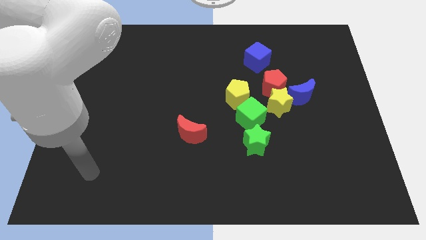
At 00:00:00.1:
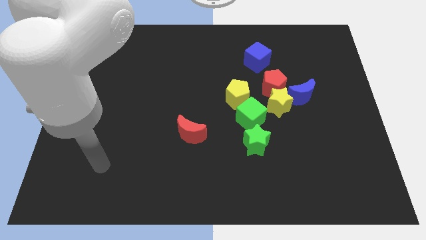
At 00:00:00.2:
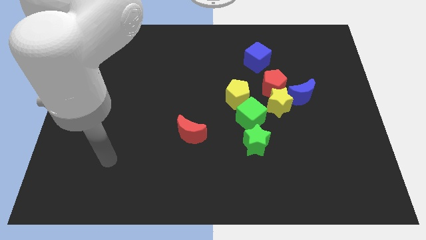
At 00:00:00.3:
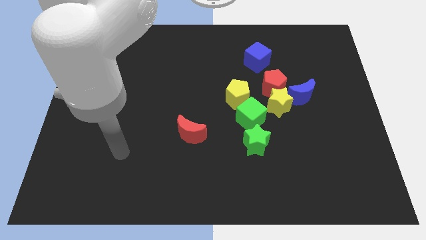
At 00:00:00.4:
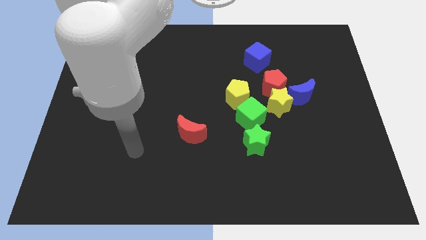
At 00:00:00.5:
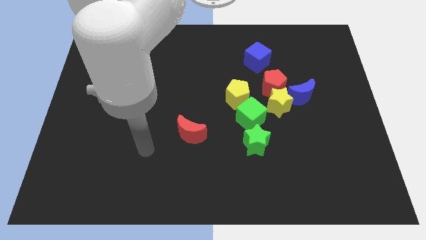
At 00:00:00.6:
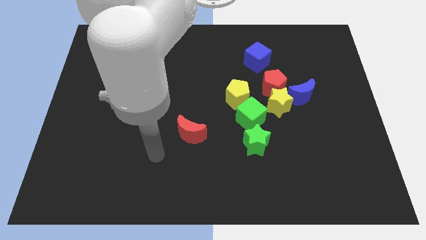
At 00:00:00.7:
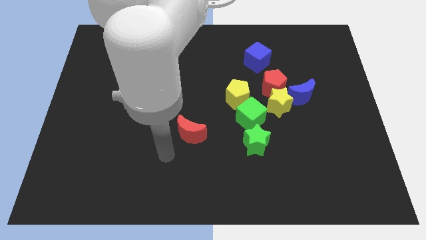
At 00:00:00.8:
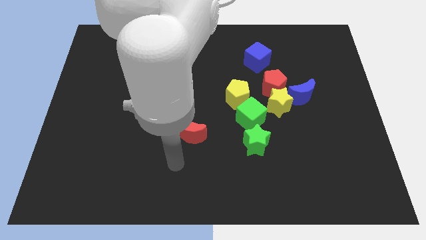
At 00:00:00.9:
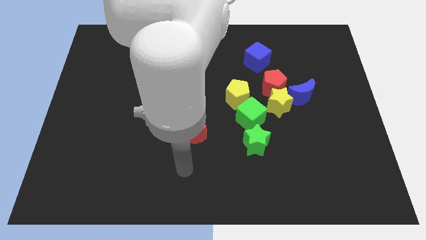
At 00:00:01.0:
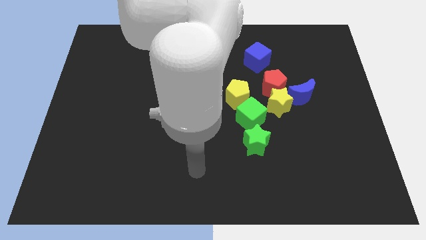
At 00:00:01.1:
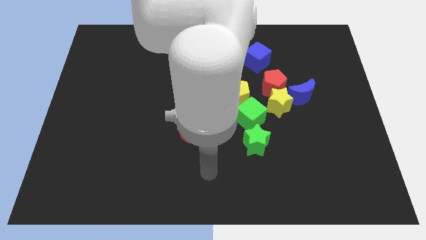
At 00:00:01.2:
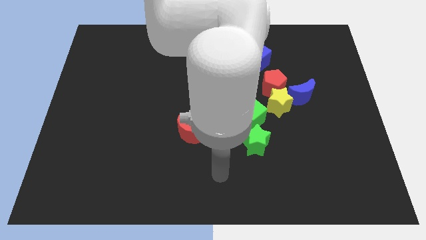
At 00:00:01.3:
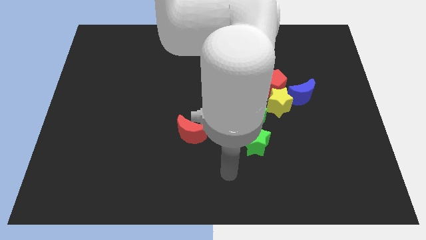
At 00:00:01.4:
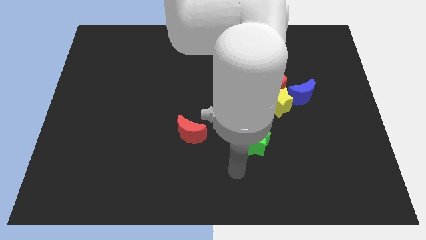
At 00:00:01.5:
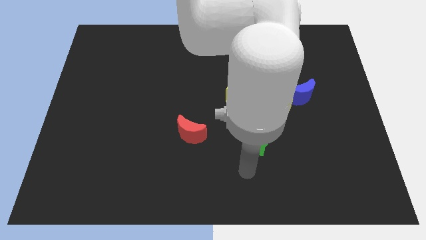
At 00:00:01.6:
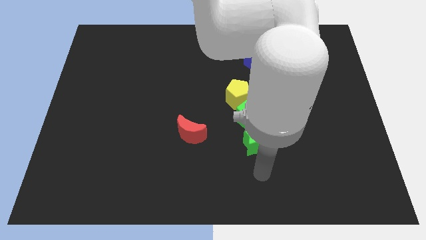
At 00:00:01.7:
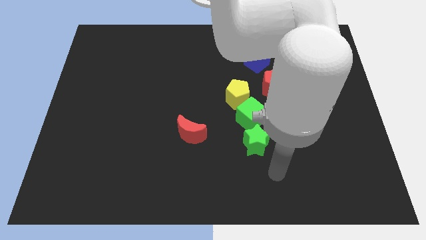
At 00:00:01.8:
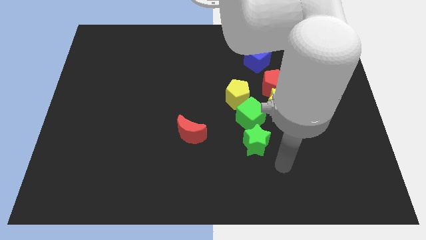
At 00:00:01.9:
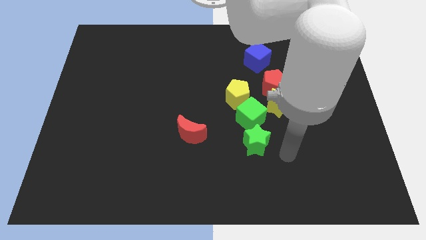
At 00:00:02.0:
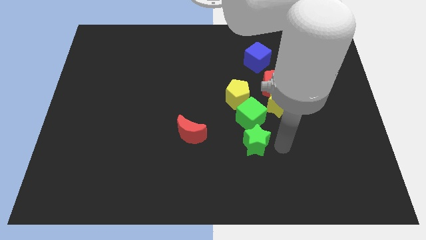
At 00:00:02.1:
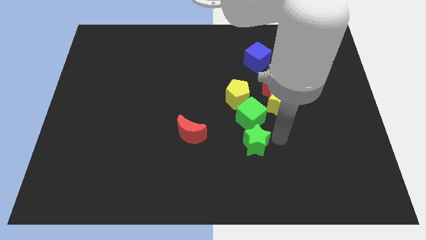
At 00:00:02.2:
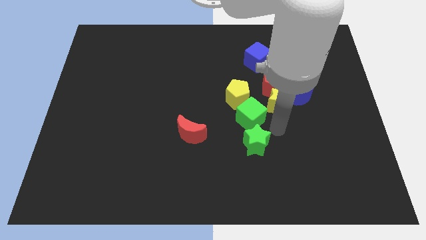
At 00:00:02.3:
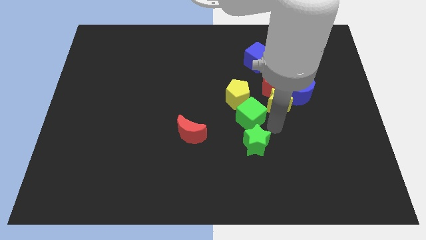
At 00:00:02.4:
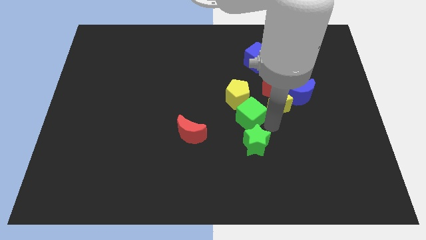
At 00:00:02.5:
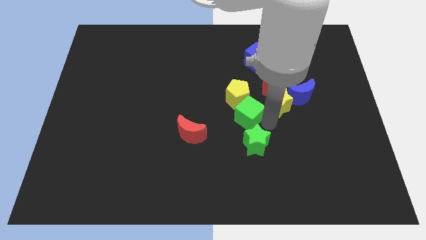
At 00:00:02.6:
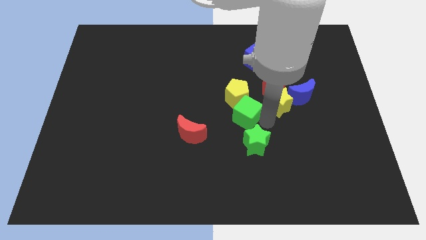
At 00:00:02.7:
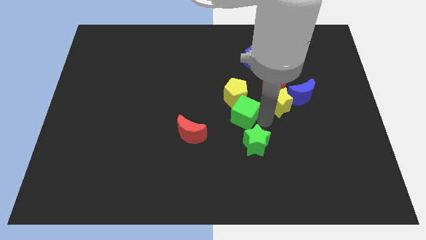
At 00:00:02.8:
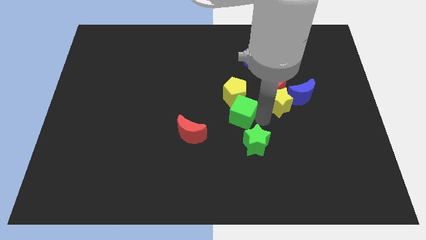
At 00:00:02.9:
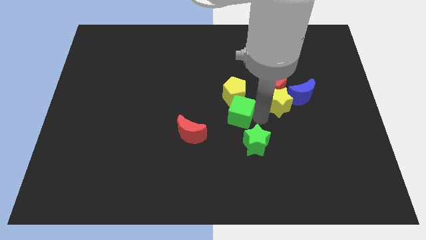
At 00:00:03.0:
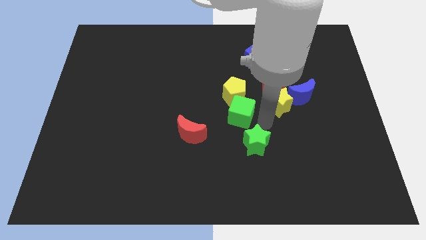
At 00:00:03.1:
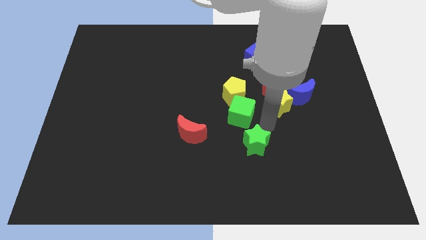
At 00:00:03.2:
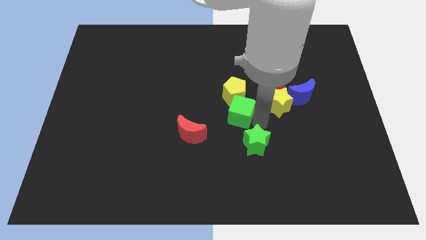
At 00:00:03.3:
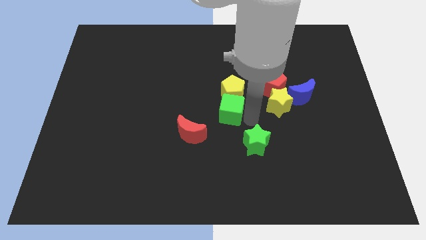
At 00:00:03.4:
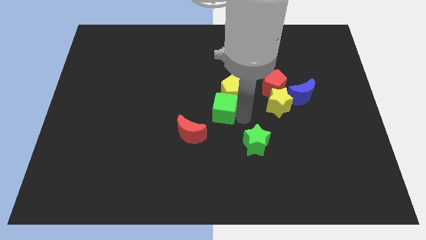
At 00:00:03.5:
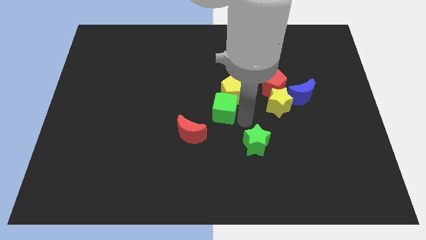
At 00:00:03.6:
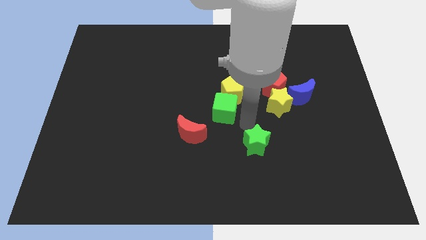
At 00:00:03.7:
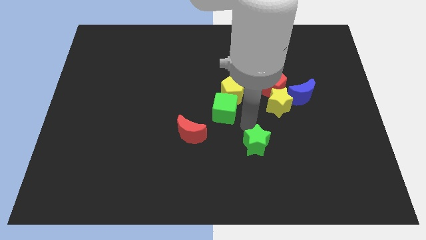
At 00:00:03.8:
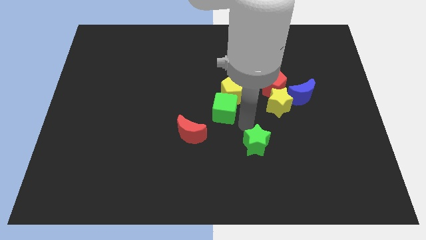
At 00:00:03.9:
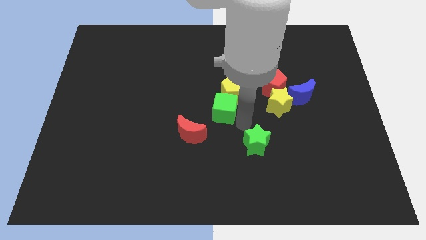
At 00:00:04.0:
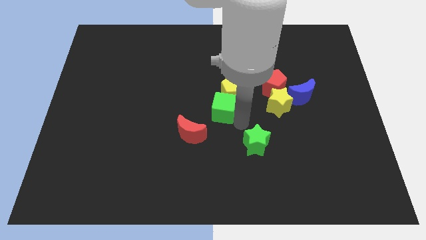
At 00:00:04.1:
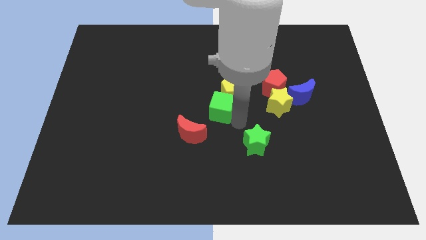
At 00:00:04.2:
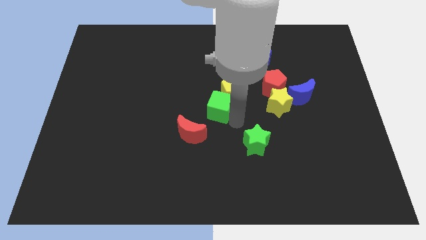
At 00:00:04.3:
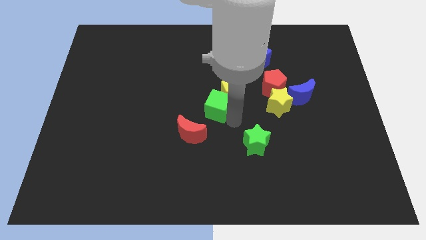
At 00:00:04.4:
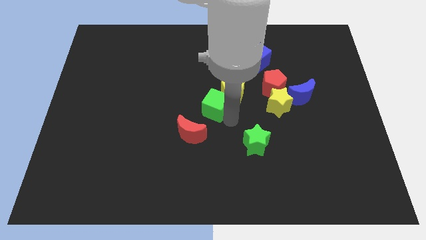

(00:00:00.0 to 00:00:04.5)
push the green cube a little bit diagonally upwards and left

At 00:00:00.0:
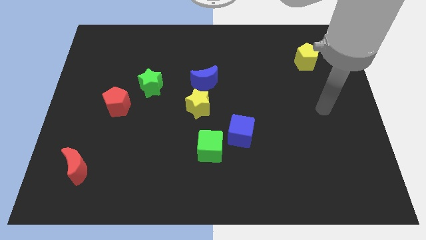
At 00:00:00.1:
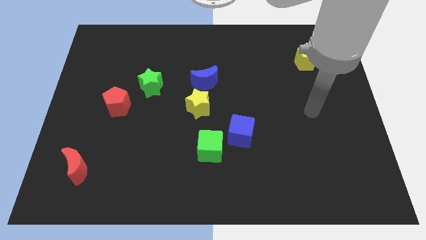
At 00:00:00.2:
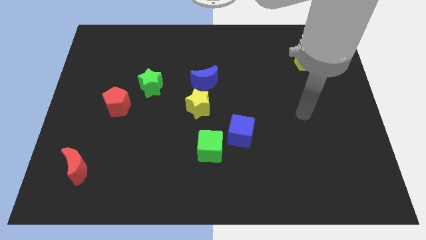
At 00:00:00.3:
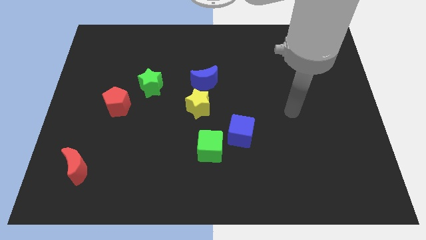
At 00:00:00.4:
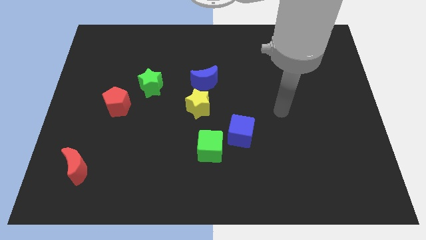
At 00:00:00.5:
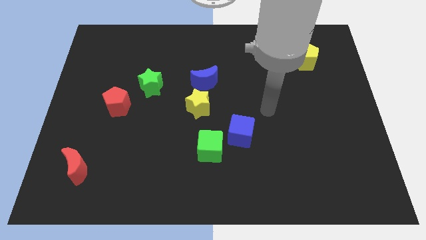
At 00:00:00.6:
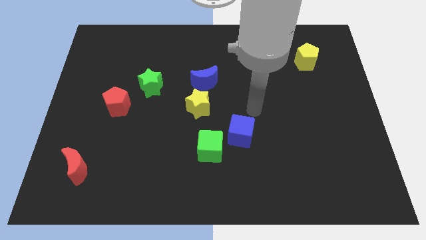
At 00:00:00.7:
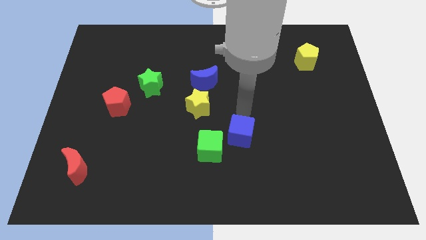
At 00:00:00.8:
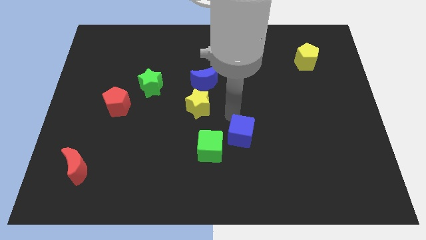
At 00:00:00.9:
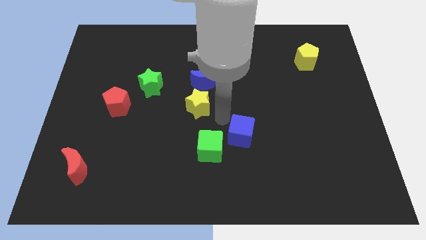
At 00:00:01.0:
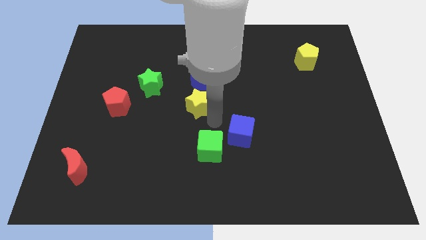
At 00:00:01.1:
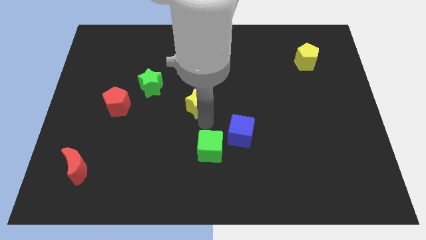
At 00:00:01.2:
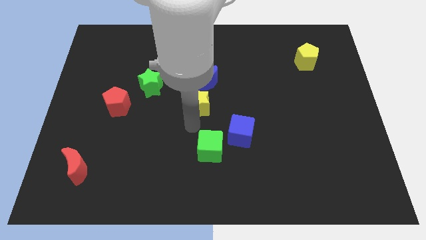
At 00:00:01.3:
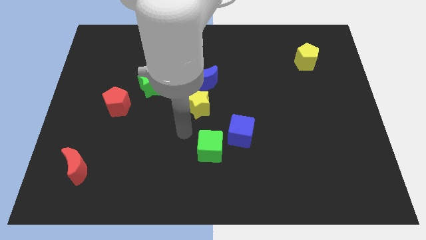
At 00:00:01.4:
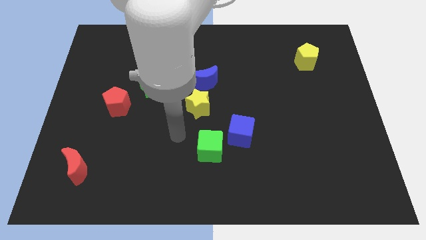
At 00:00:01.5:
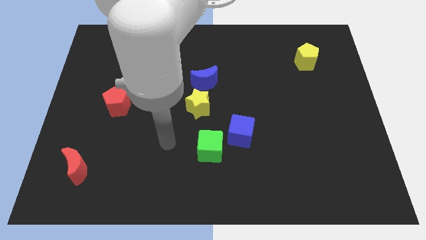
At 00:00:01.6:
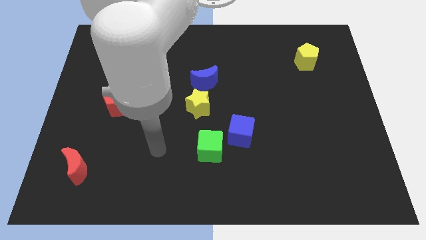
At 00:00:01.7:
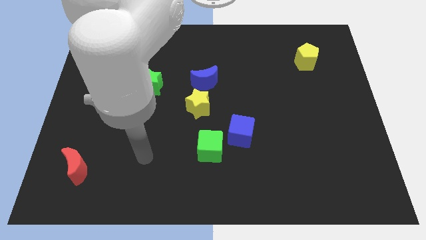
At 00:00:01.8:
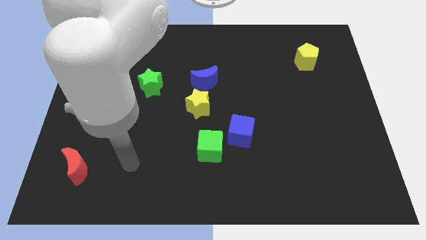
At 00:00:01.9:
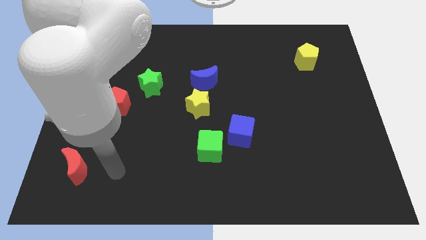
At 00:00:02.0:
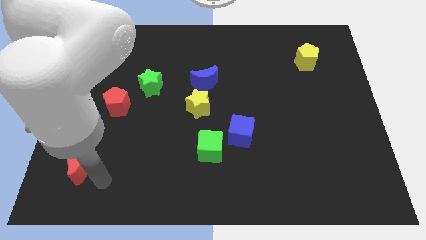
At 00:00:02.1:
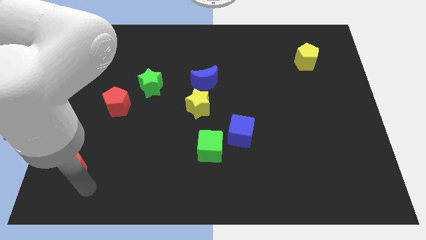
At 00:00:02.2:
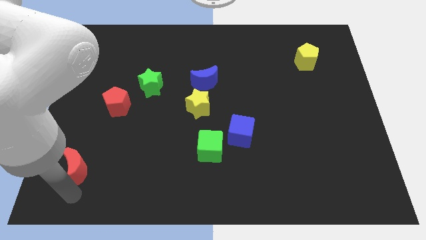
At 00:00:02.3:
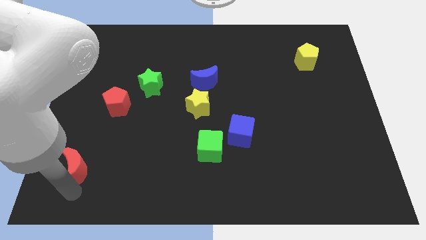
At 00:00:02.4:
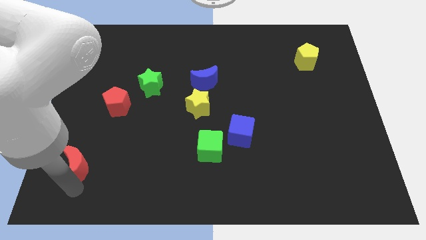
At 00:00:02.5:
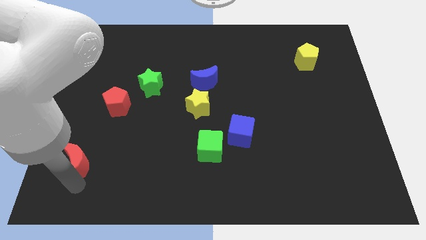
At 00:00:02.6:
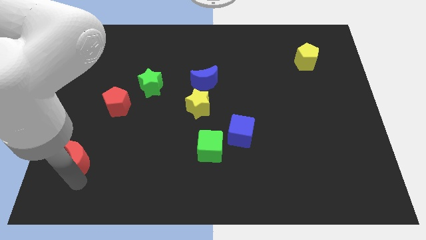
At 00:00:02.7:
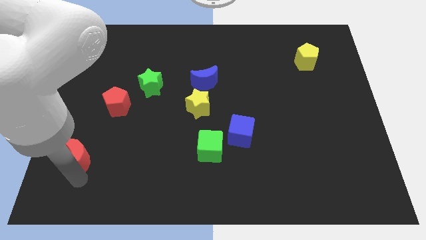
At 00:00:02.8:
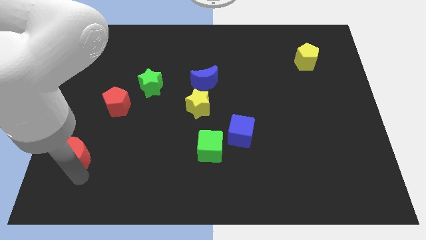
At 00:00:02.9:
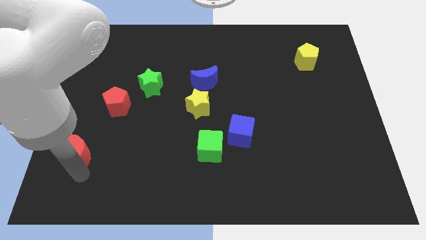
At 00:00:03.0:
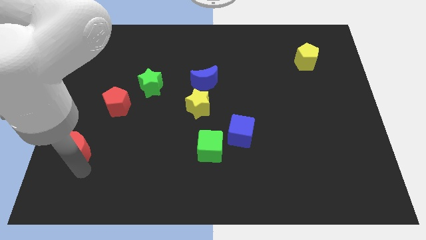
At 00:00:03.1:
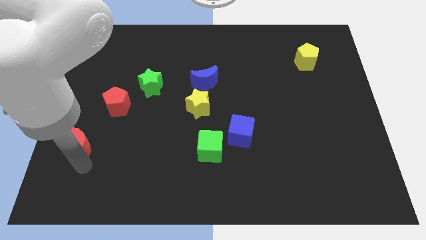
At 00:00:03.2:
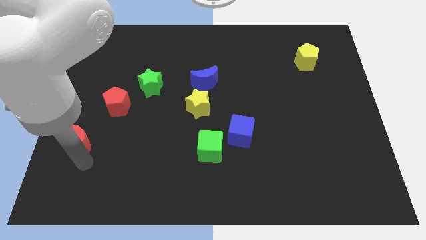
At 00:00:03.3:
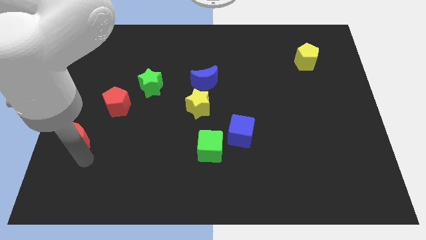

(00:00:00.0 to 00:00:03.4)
slightly push the red moon upwards
